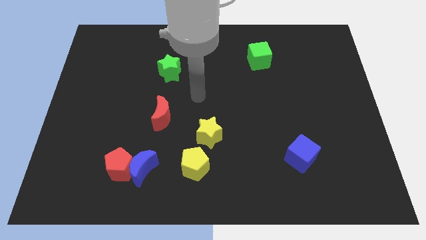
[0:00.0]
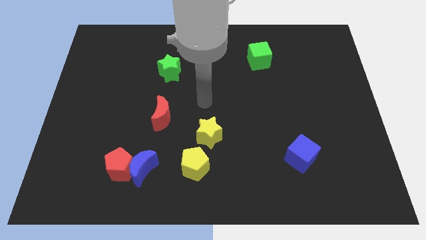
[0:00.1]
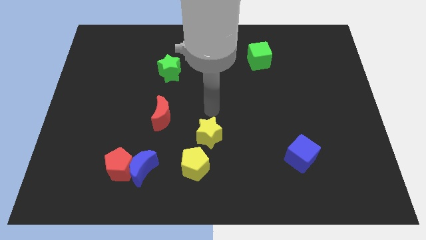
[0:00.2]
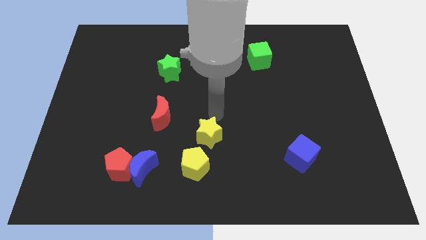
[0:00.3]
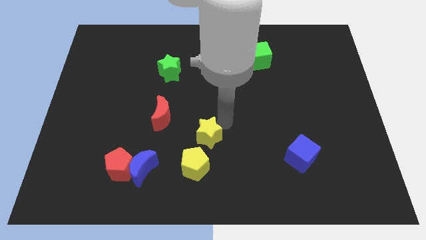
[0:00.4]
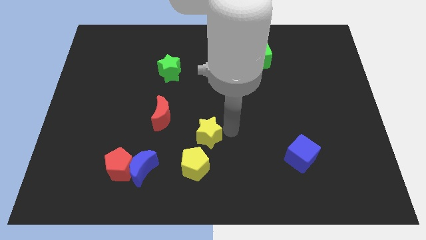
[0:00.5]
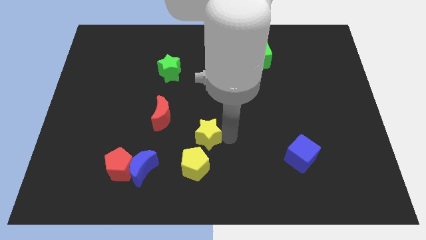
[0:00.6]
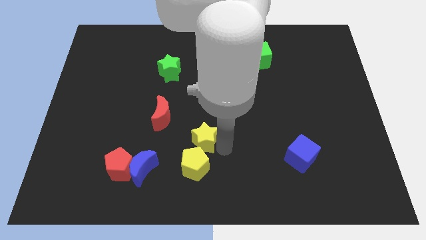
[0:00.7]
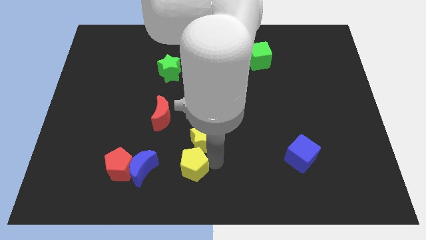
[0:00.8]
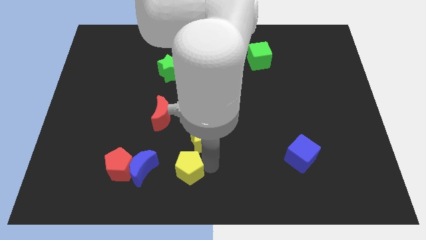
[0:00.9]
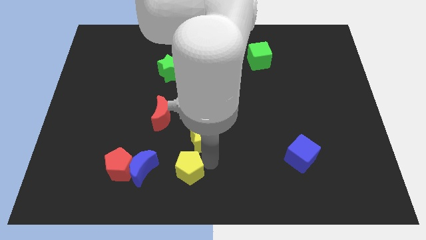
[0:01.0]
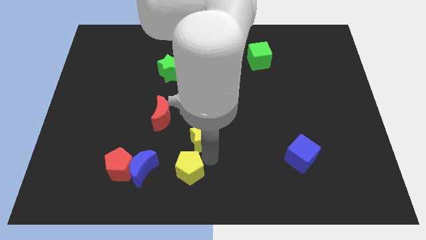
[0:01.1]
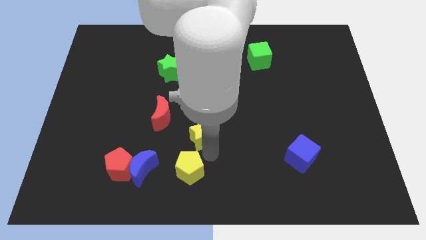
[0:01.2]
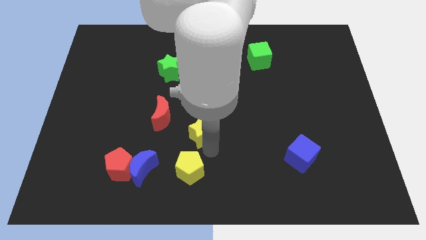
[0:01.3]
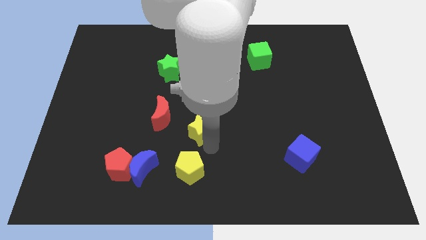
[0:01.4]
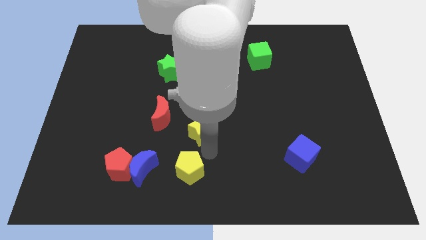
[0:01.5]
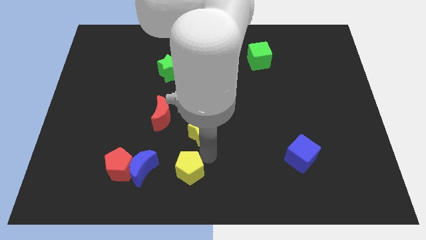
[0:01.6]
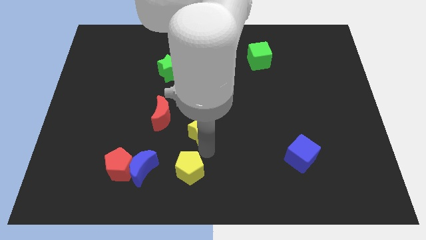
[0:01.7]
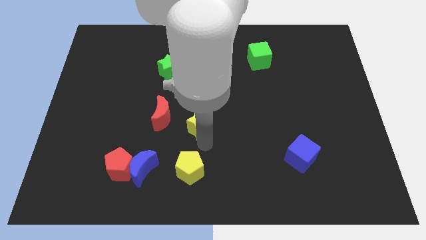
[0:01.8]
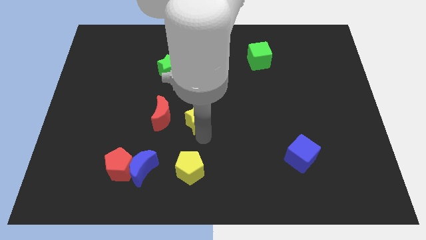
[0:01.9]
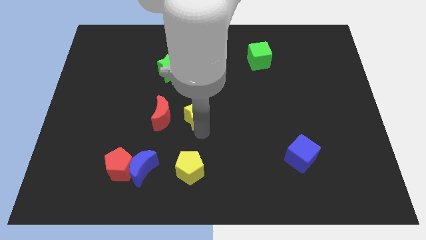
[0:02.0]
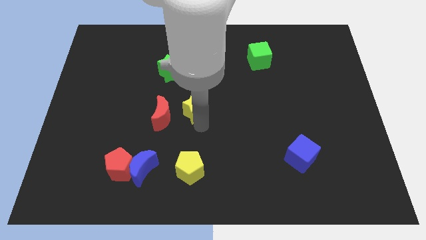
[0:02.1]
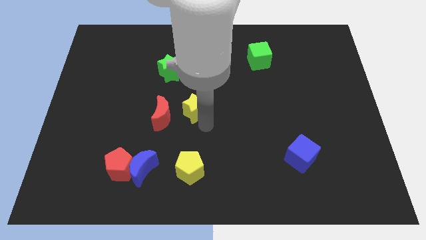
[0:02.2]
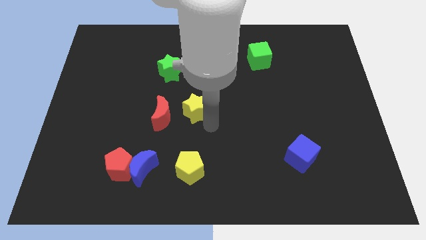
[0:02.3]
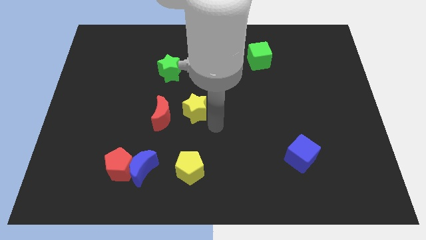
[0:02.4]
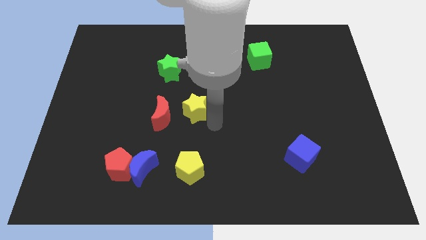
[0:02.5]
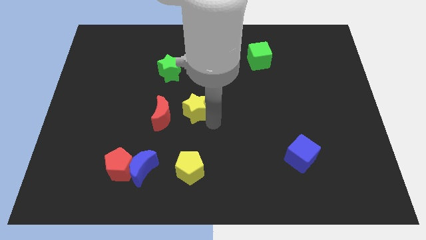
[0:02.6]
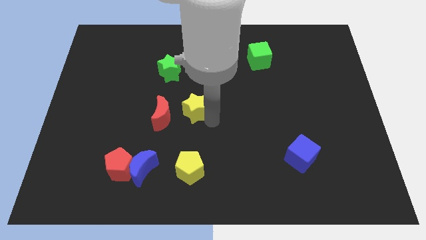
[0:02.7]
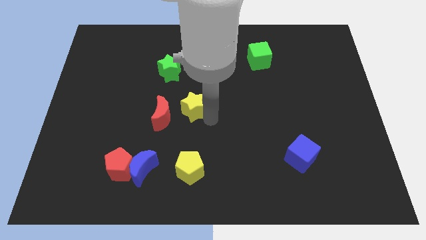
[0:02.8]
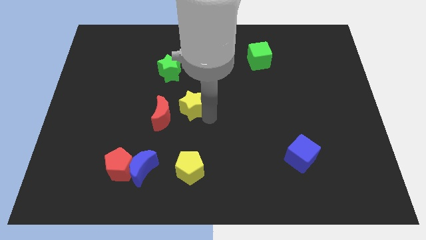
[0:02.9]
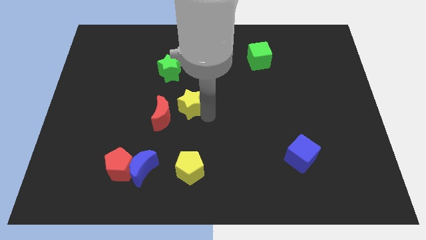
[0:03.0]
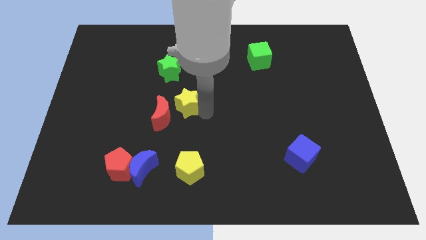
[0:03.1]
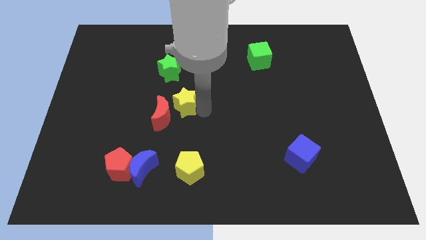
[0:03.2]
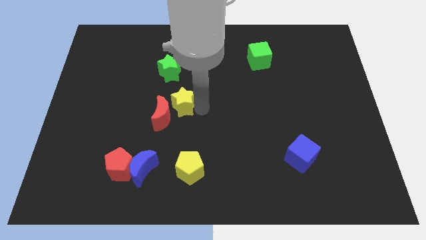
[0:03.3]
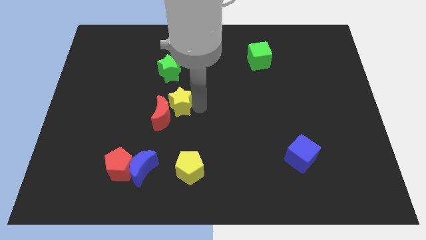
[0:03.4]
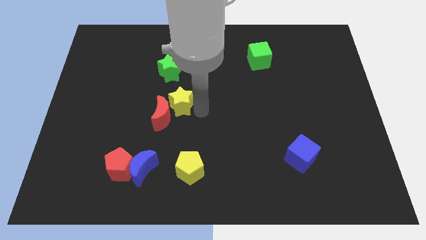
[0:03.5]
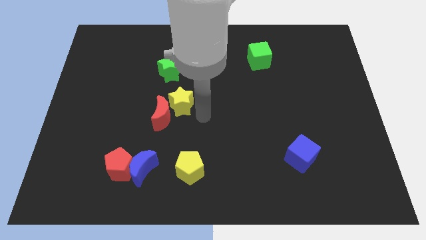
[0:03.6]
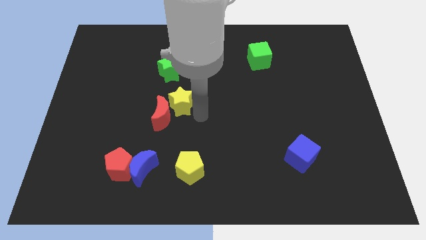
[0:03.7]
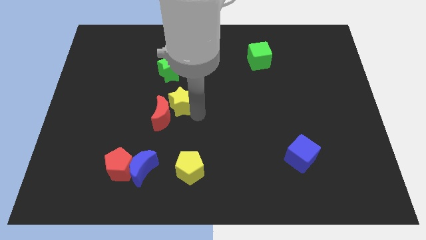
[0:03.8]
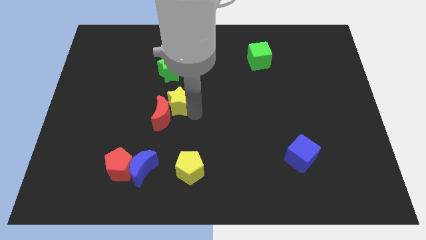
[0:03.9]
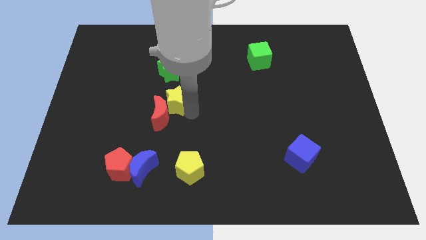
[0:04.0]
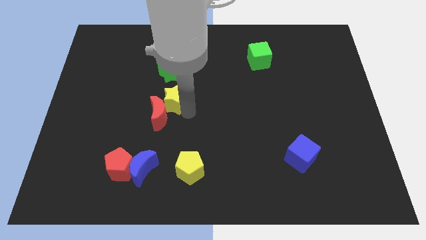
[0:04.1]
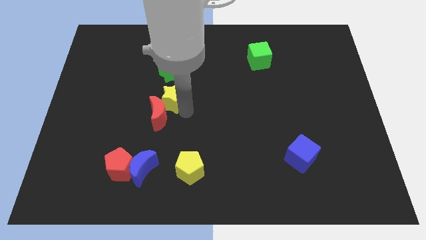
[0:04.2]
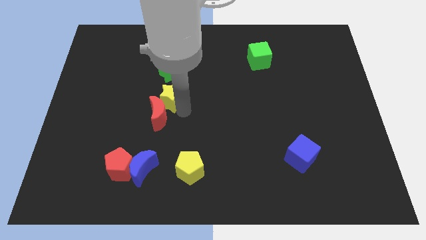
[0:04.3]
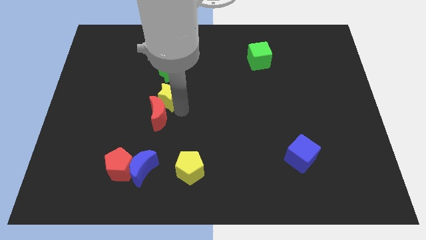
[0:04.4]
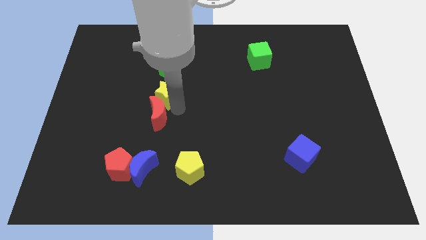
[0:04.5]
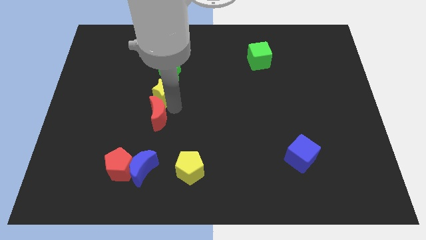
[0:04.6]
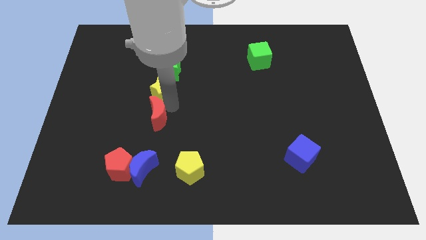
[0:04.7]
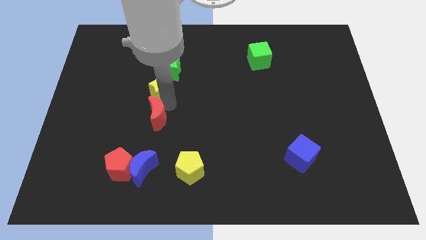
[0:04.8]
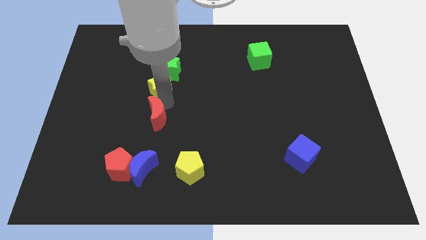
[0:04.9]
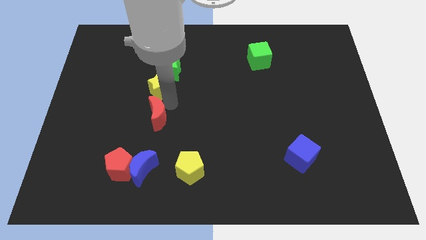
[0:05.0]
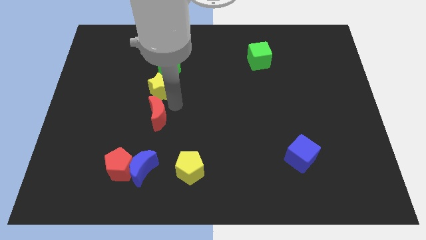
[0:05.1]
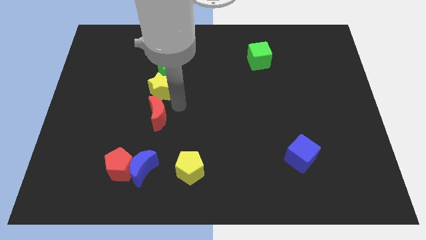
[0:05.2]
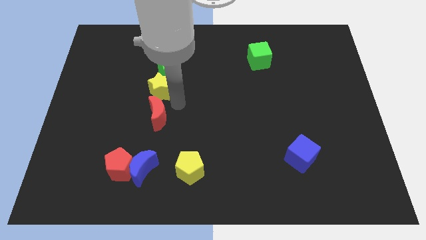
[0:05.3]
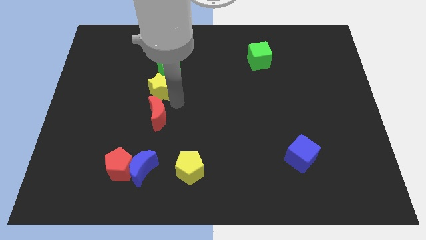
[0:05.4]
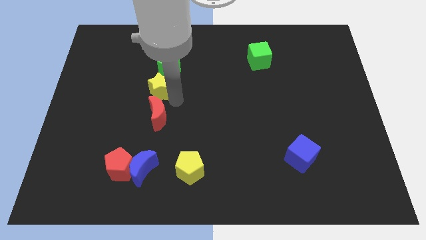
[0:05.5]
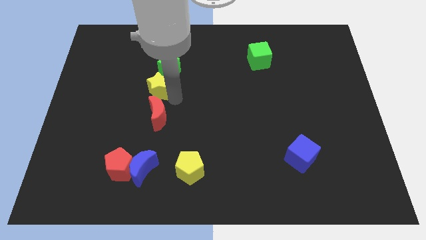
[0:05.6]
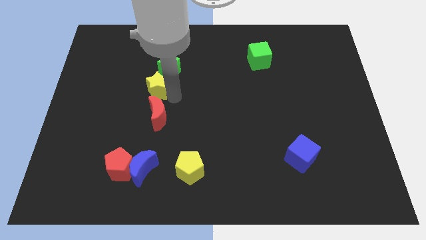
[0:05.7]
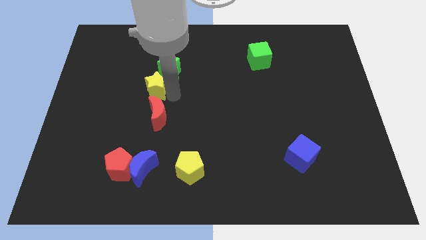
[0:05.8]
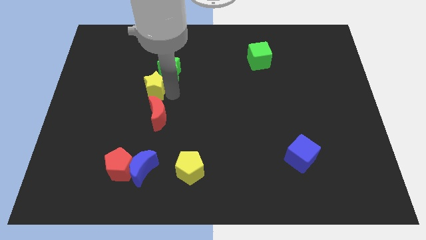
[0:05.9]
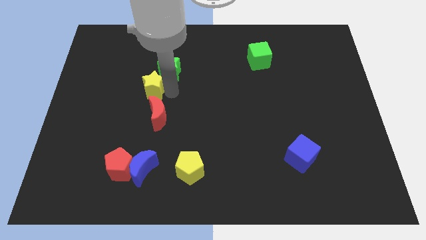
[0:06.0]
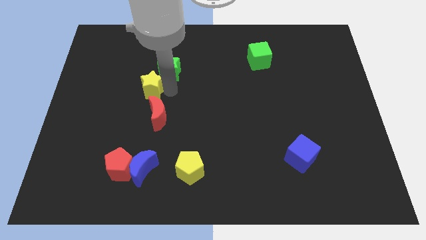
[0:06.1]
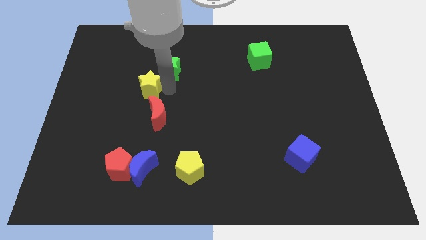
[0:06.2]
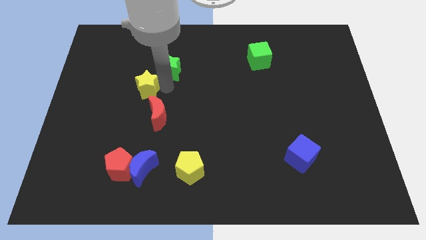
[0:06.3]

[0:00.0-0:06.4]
slide the yellow star diagonally upwards and left

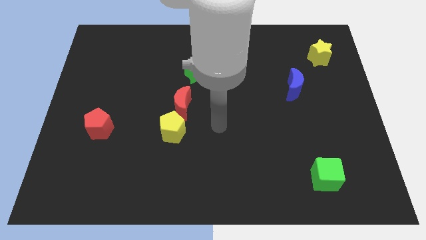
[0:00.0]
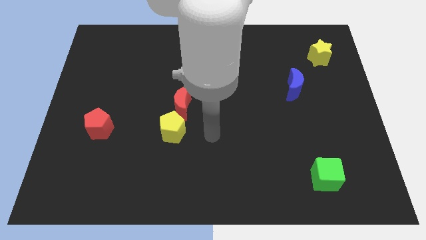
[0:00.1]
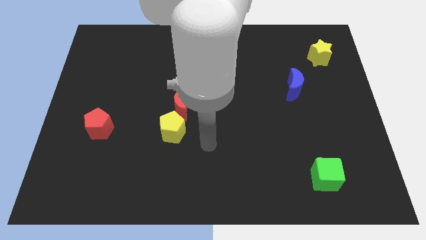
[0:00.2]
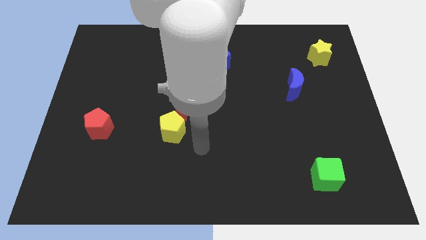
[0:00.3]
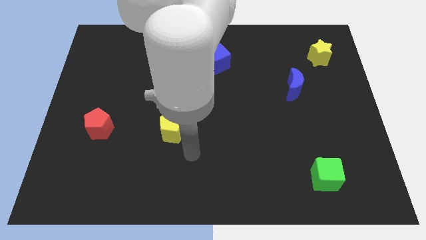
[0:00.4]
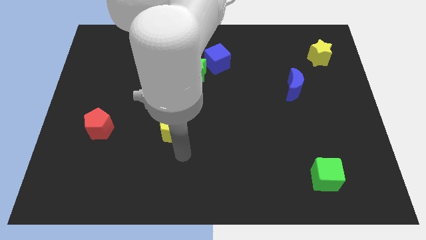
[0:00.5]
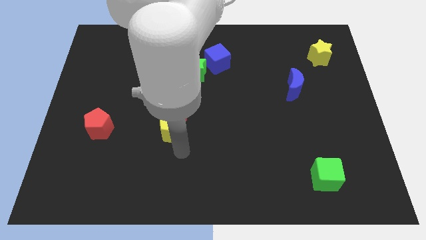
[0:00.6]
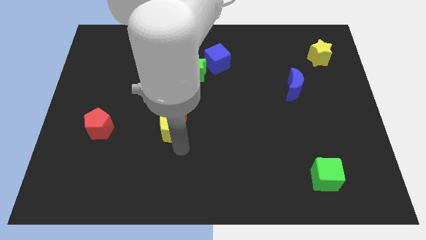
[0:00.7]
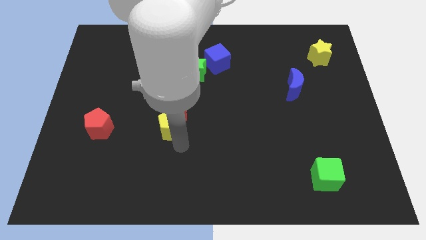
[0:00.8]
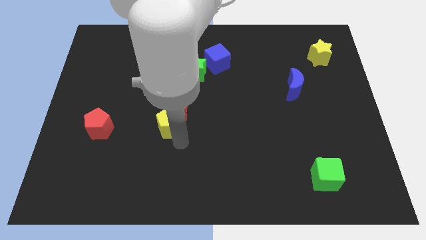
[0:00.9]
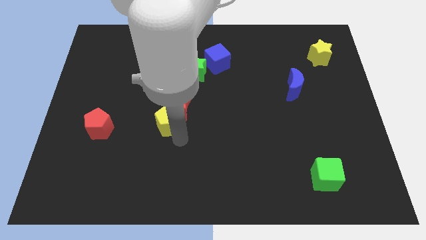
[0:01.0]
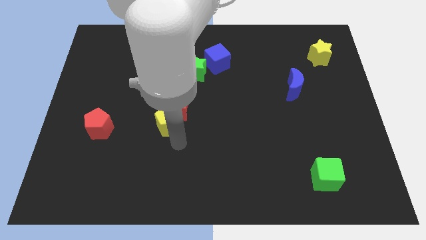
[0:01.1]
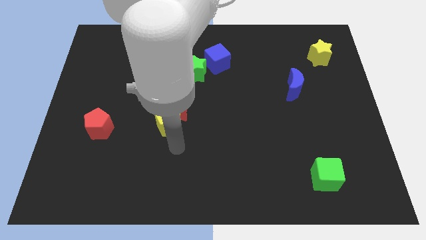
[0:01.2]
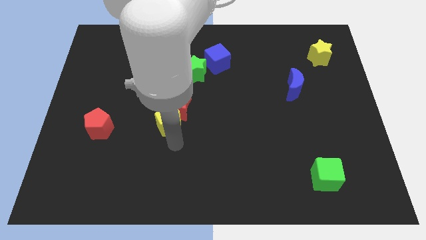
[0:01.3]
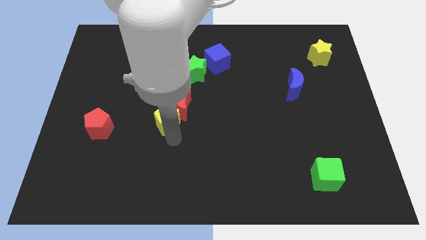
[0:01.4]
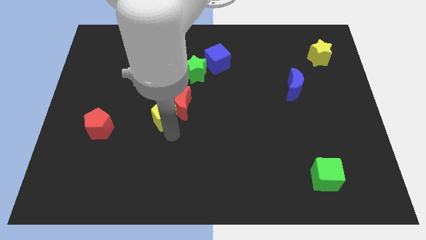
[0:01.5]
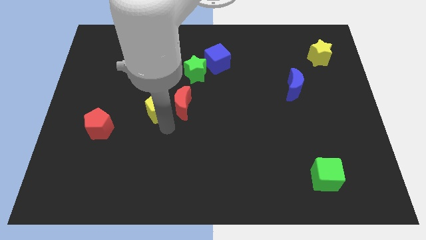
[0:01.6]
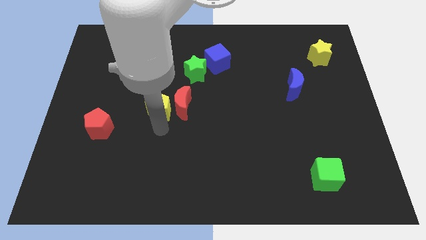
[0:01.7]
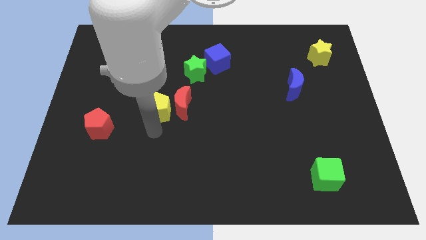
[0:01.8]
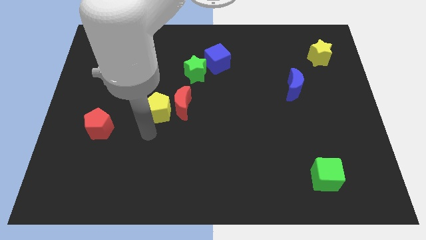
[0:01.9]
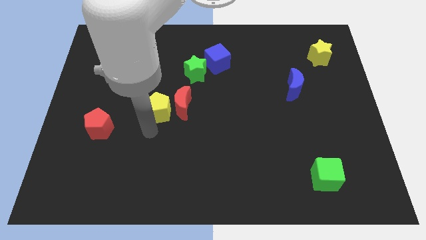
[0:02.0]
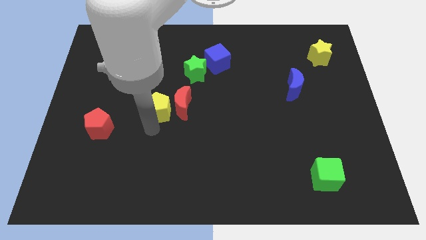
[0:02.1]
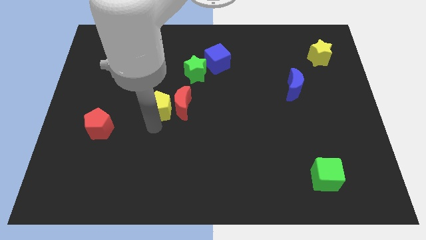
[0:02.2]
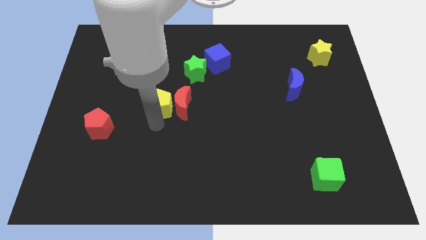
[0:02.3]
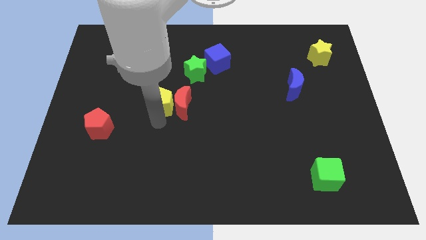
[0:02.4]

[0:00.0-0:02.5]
push the yellow pentagon slightly up
